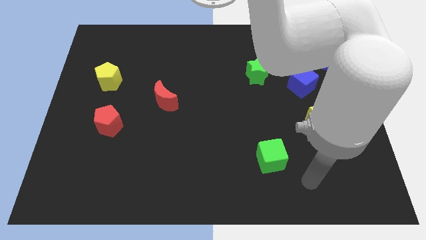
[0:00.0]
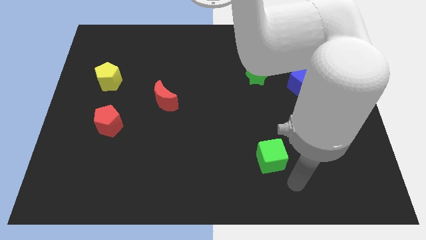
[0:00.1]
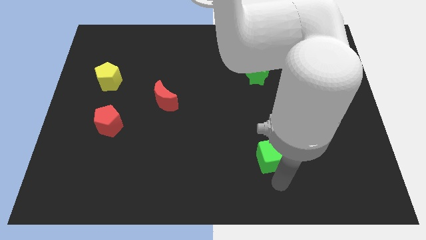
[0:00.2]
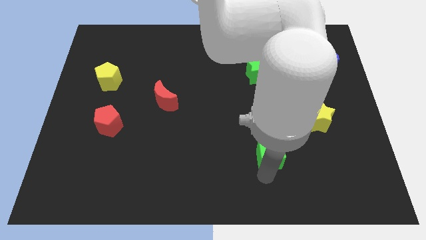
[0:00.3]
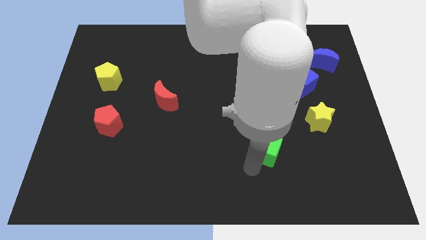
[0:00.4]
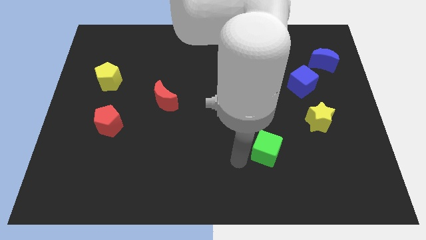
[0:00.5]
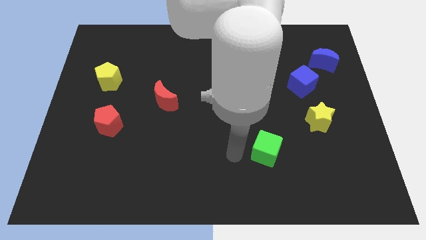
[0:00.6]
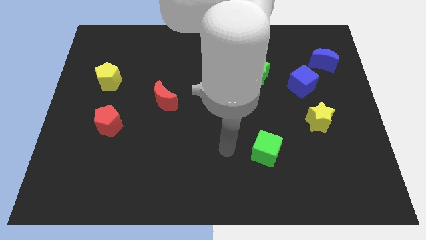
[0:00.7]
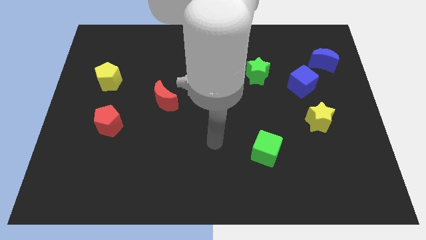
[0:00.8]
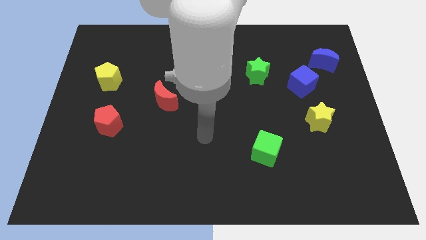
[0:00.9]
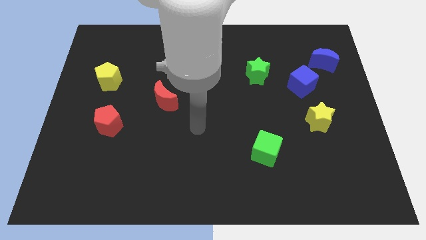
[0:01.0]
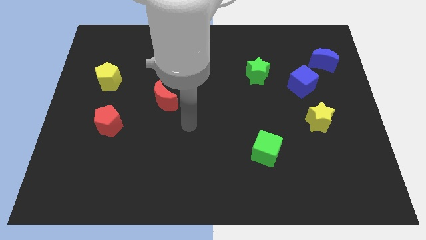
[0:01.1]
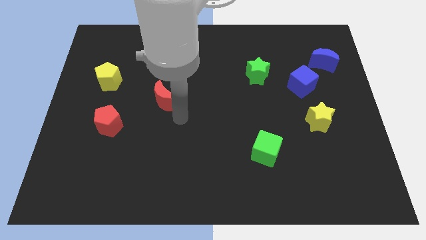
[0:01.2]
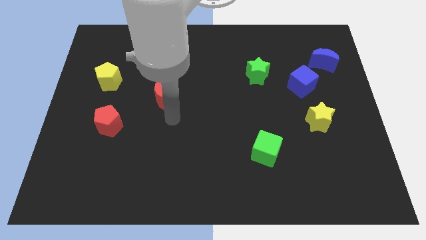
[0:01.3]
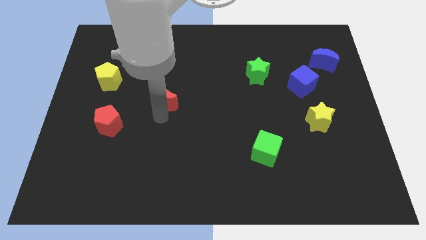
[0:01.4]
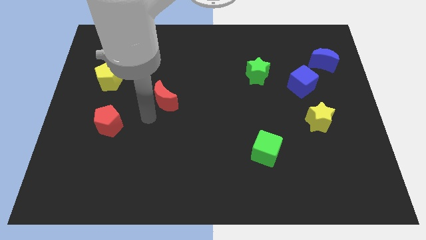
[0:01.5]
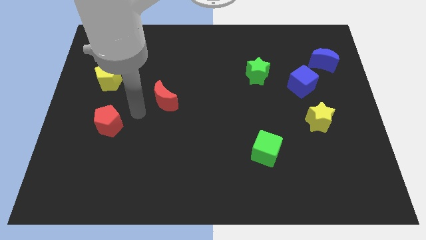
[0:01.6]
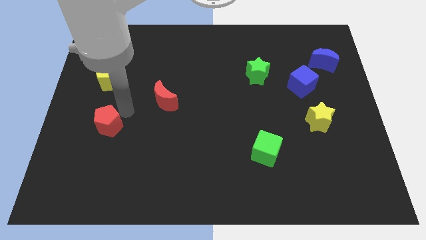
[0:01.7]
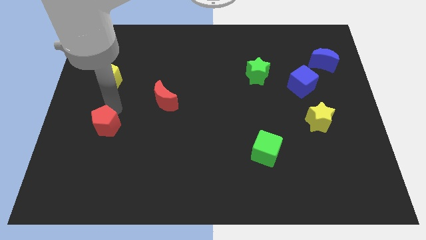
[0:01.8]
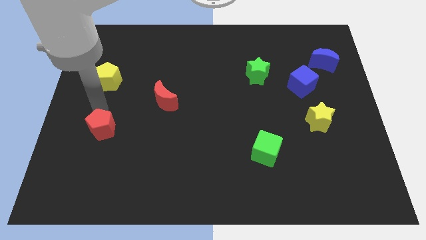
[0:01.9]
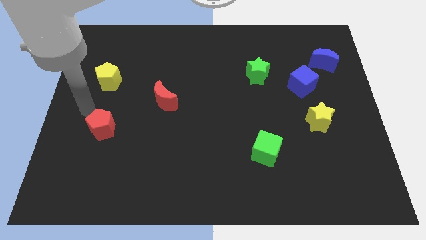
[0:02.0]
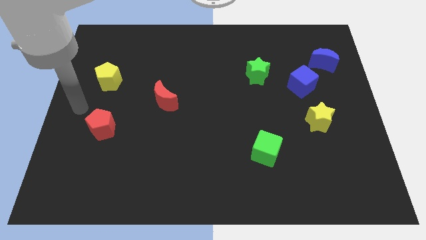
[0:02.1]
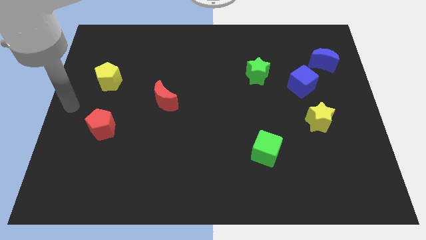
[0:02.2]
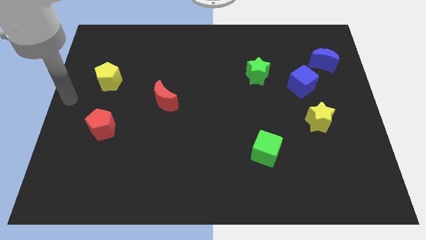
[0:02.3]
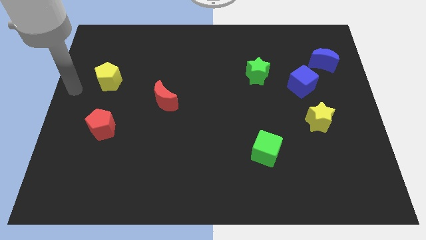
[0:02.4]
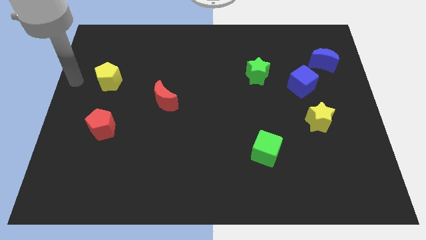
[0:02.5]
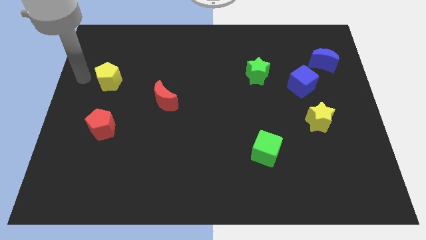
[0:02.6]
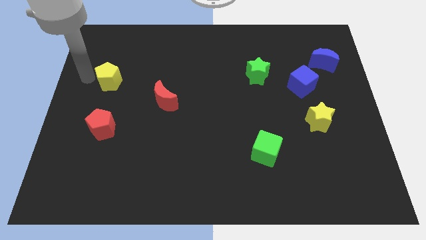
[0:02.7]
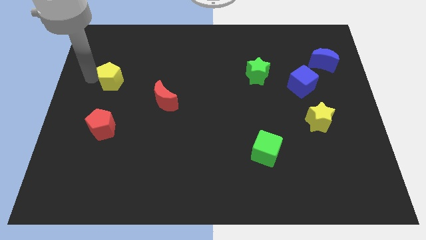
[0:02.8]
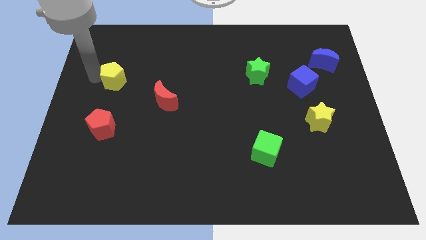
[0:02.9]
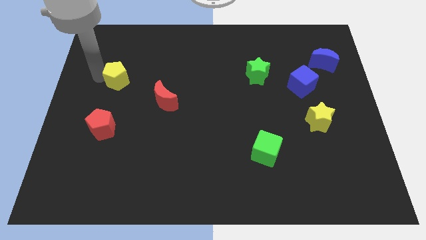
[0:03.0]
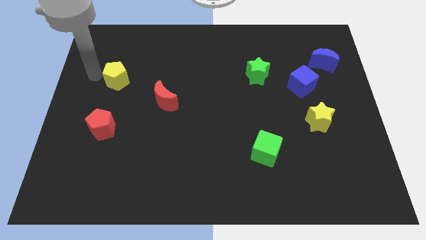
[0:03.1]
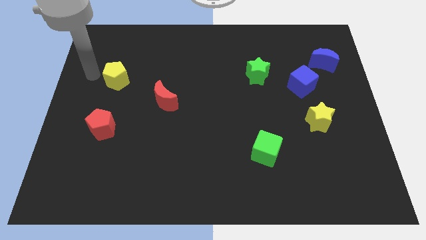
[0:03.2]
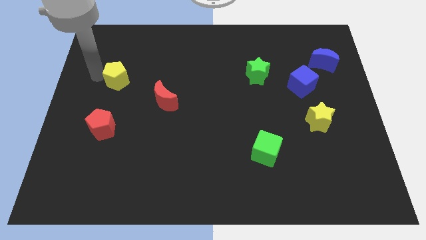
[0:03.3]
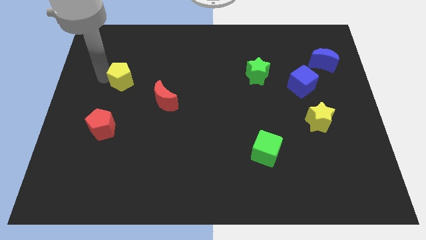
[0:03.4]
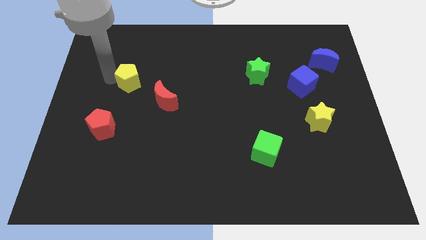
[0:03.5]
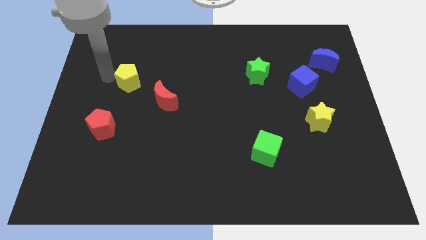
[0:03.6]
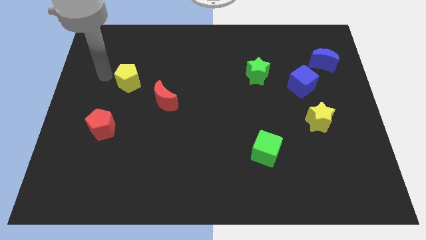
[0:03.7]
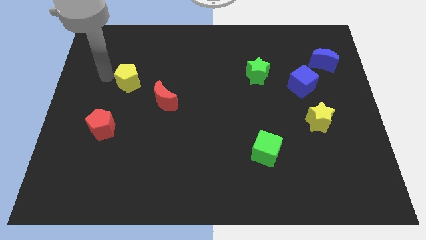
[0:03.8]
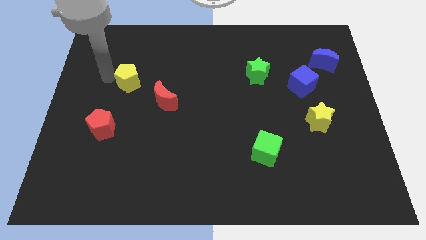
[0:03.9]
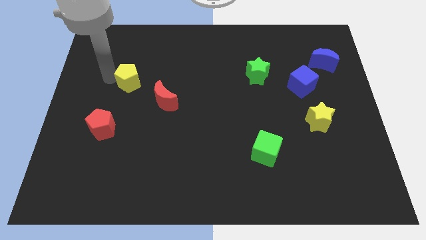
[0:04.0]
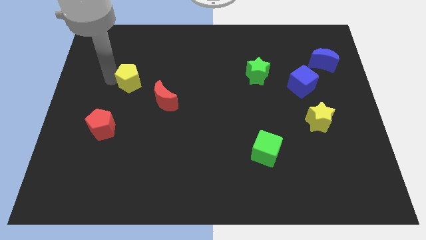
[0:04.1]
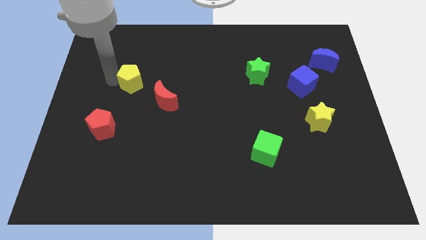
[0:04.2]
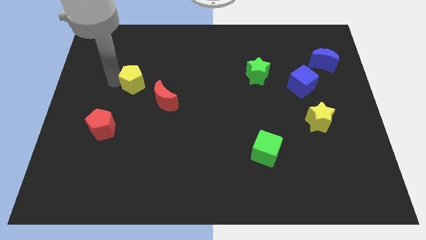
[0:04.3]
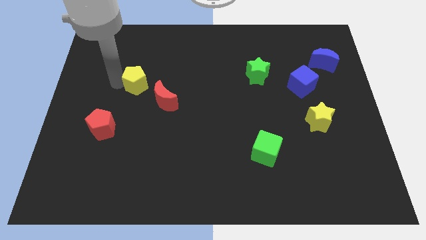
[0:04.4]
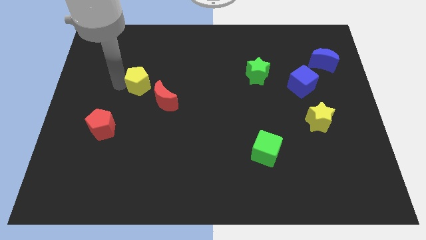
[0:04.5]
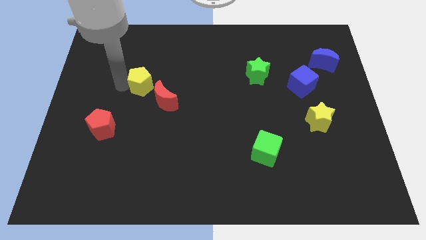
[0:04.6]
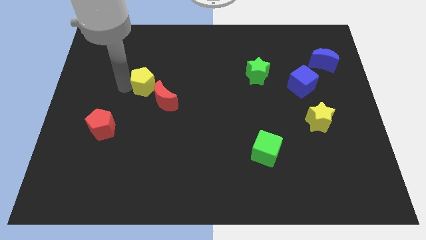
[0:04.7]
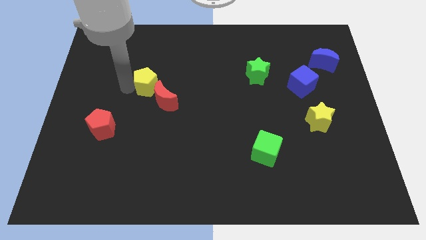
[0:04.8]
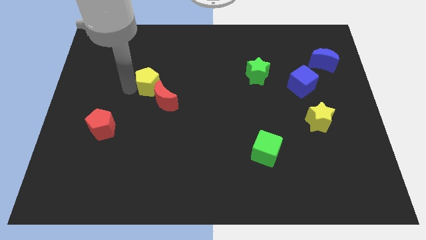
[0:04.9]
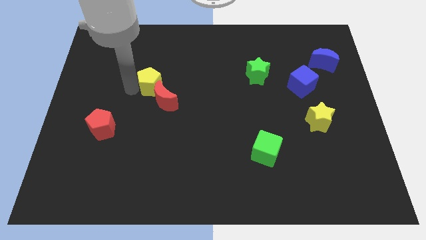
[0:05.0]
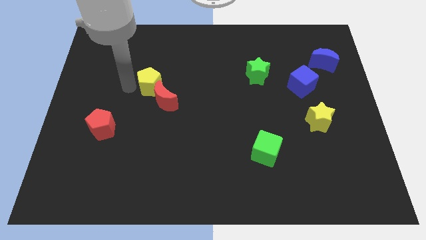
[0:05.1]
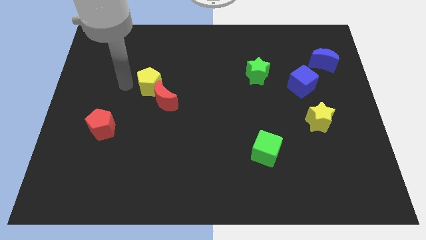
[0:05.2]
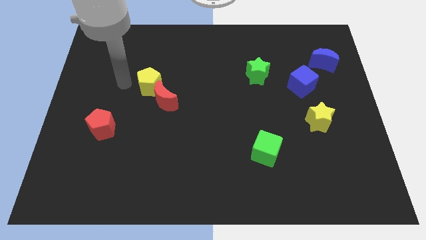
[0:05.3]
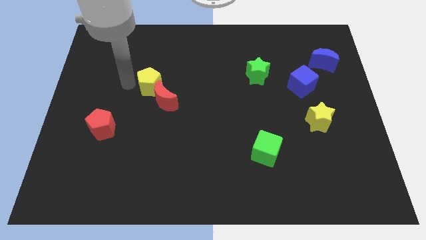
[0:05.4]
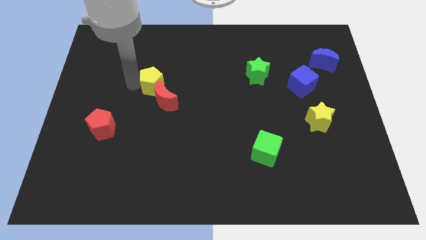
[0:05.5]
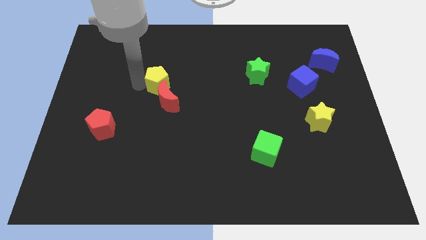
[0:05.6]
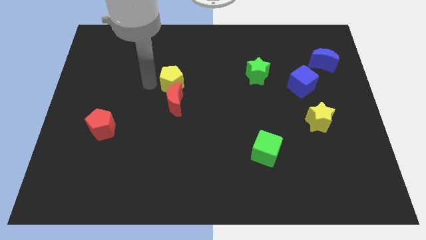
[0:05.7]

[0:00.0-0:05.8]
put the yellow pentagon to the middle of the board
